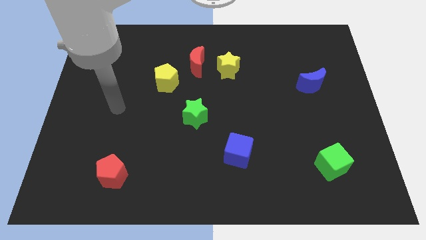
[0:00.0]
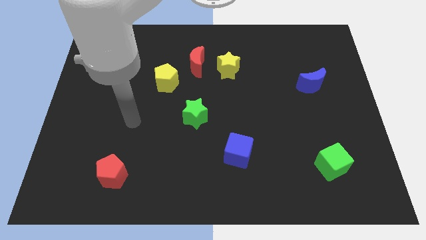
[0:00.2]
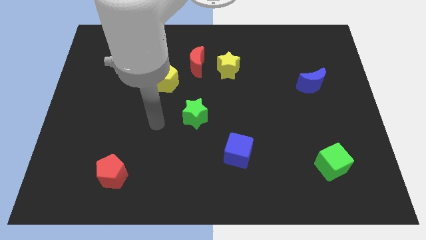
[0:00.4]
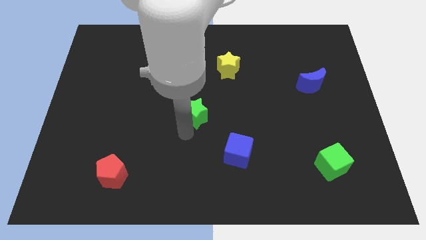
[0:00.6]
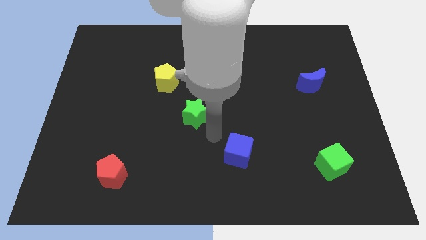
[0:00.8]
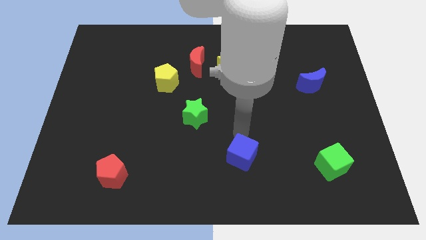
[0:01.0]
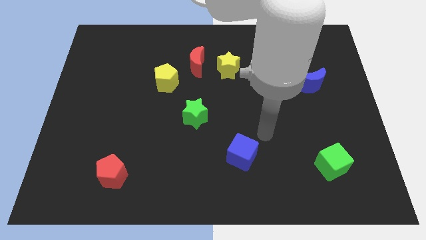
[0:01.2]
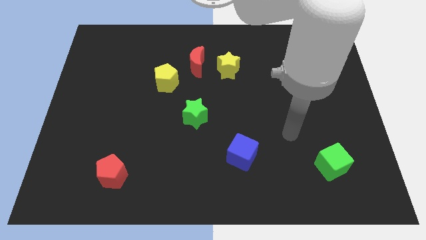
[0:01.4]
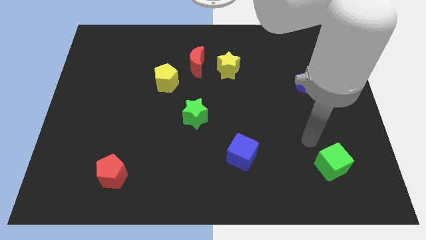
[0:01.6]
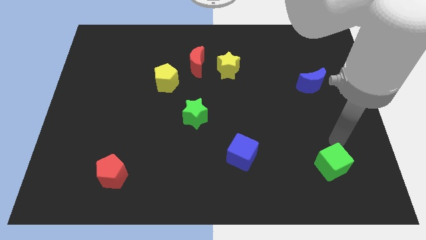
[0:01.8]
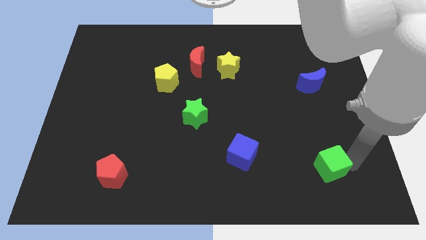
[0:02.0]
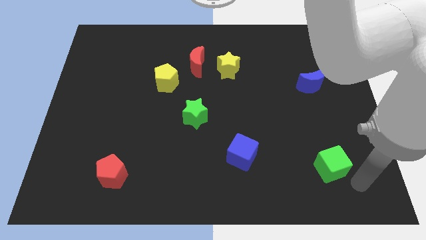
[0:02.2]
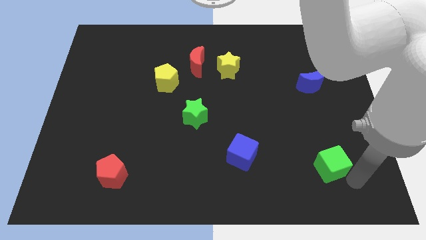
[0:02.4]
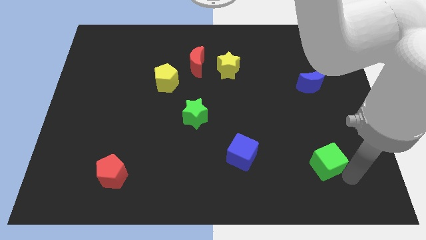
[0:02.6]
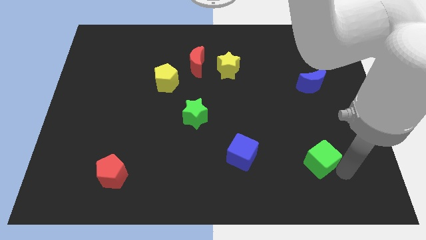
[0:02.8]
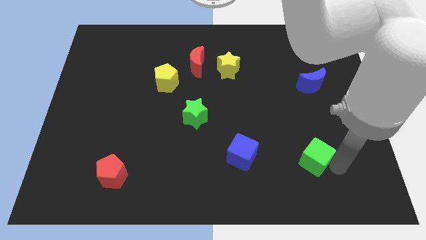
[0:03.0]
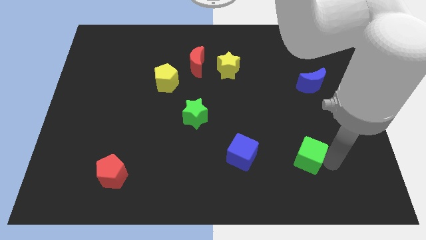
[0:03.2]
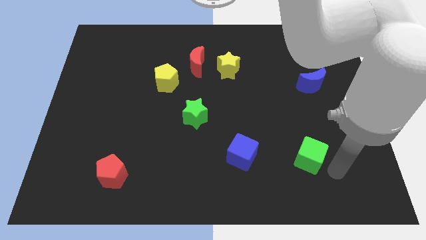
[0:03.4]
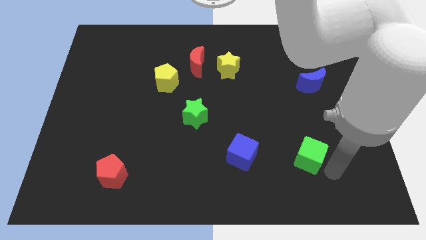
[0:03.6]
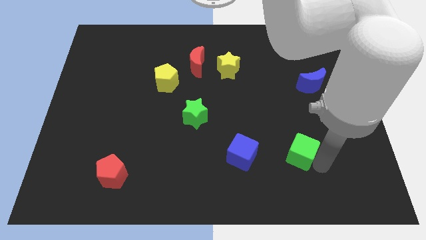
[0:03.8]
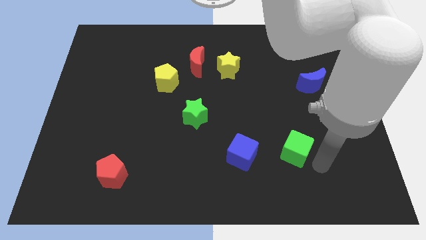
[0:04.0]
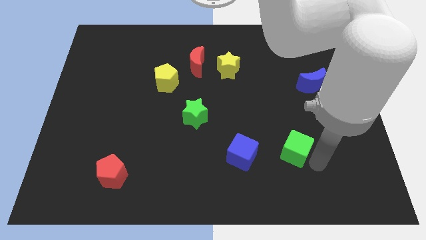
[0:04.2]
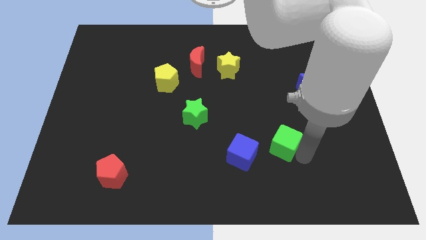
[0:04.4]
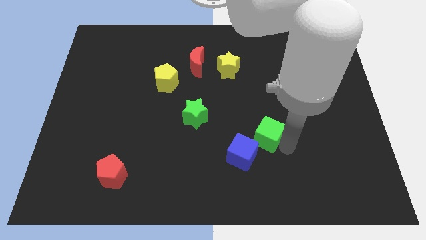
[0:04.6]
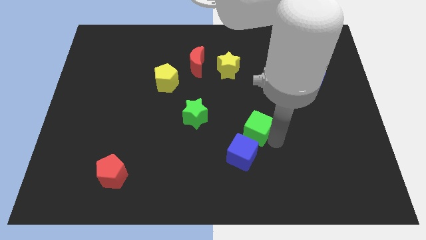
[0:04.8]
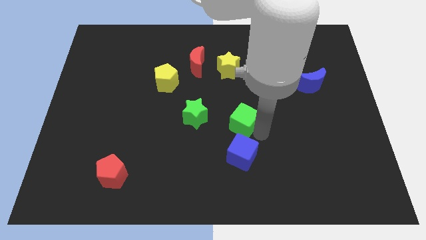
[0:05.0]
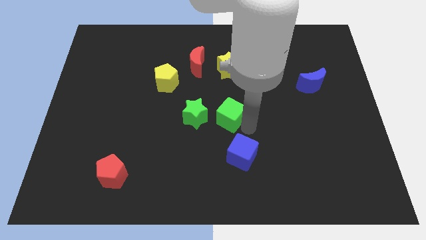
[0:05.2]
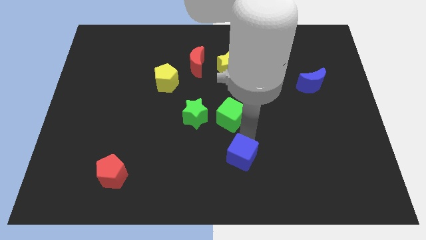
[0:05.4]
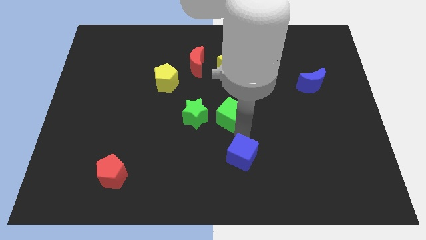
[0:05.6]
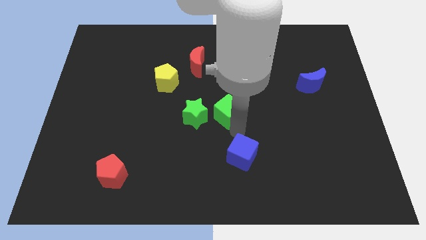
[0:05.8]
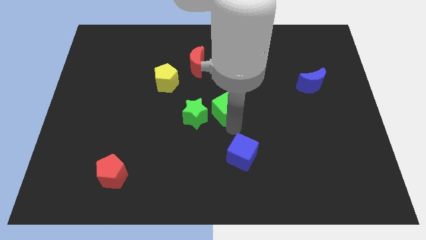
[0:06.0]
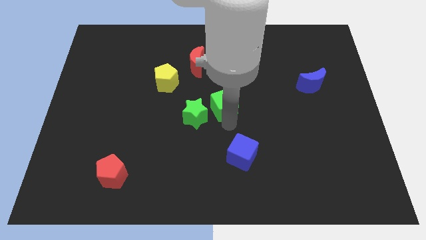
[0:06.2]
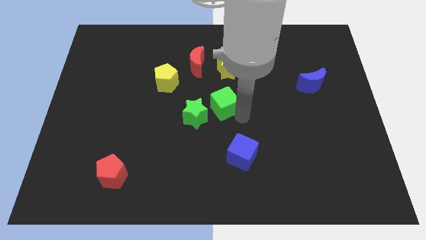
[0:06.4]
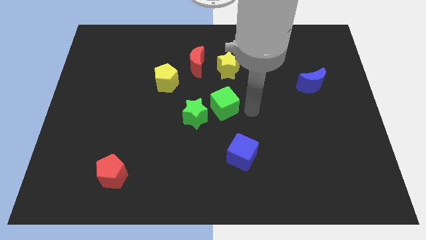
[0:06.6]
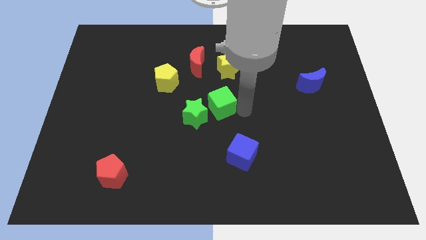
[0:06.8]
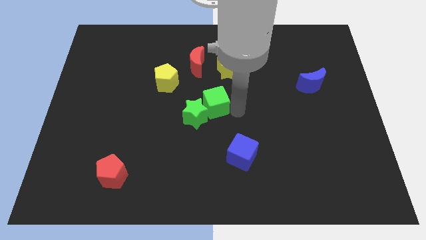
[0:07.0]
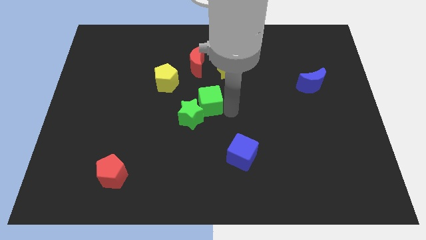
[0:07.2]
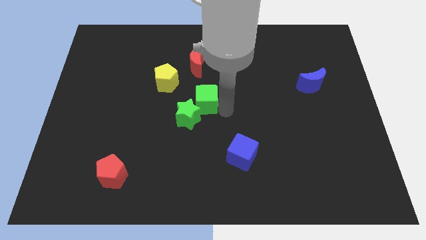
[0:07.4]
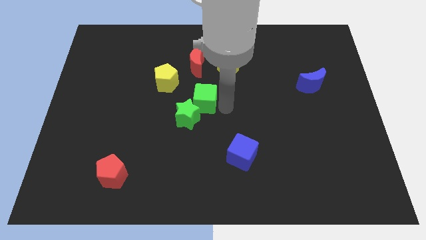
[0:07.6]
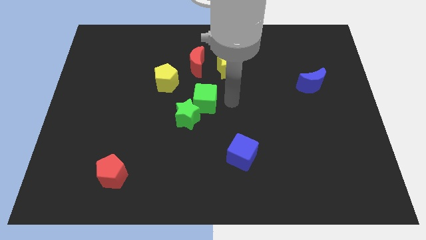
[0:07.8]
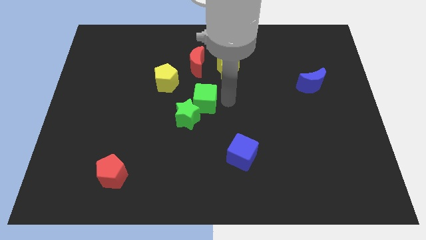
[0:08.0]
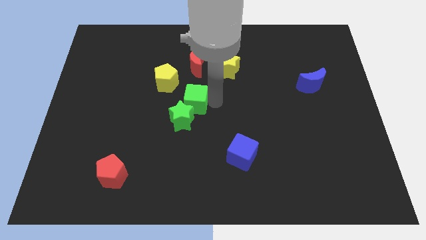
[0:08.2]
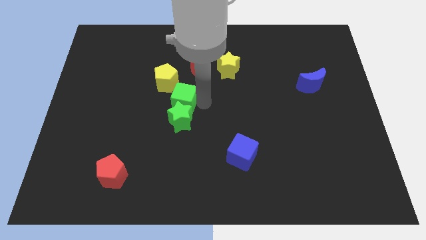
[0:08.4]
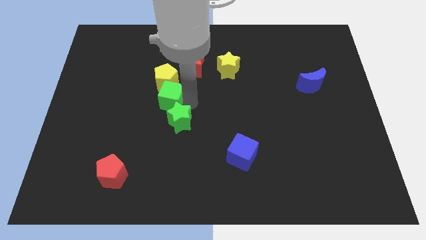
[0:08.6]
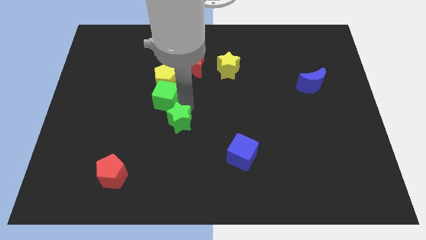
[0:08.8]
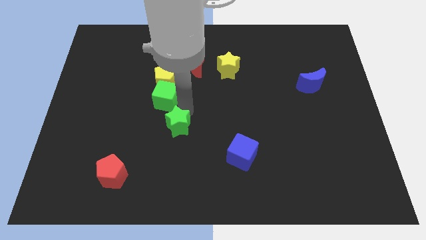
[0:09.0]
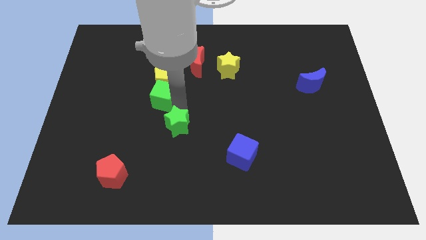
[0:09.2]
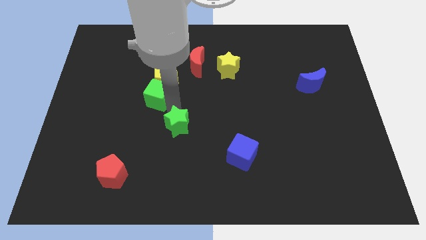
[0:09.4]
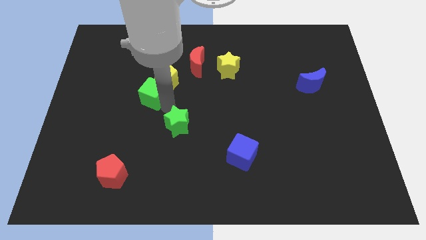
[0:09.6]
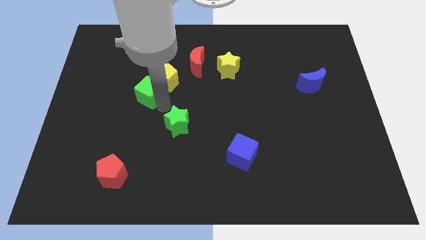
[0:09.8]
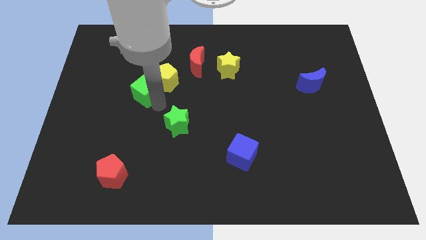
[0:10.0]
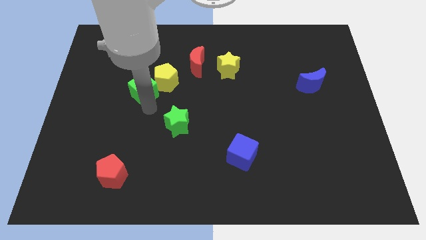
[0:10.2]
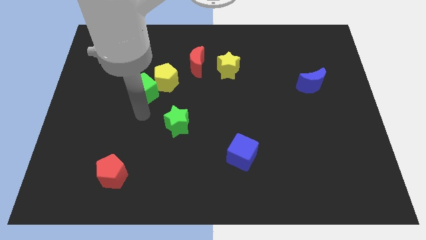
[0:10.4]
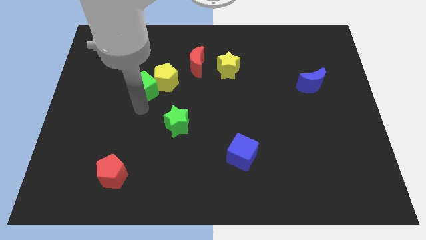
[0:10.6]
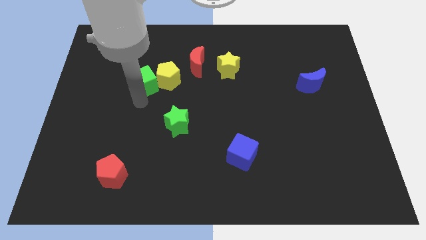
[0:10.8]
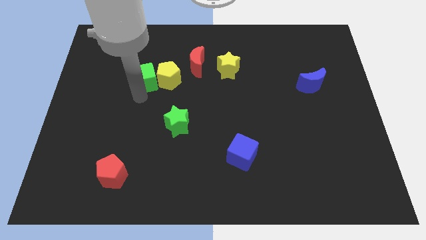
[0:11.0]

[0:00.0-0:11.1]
push the green cube to the top left side of the yellow pentagon

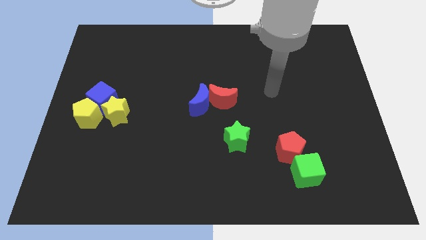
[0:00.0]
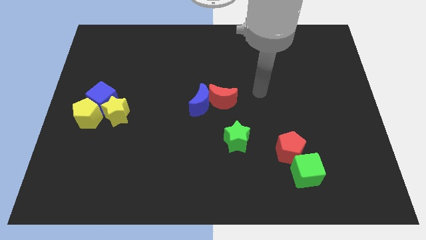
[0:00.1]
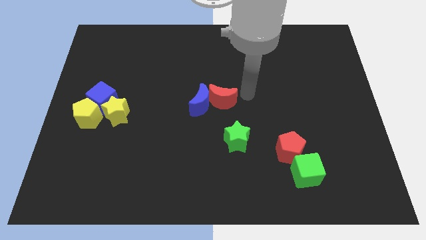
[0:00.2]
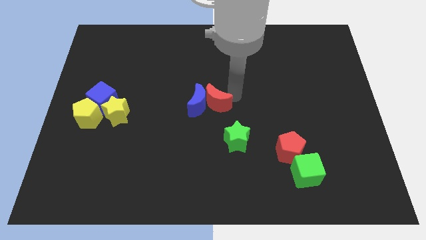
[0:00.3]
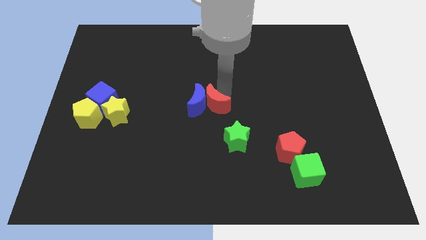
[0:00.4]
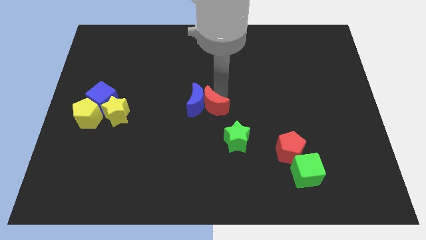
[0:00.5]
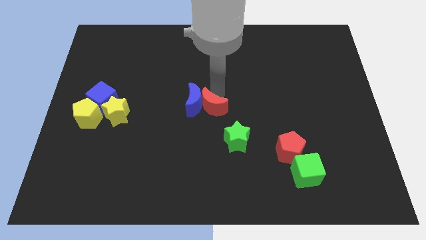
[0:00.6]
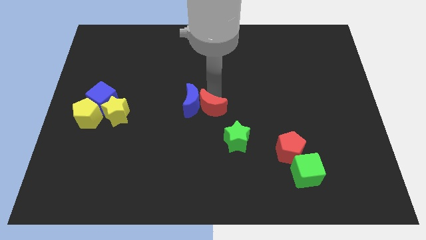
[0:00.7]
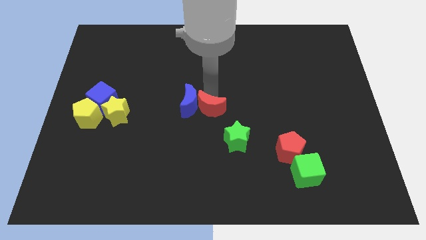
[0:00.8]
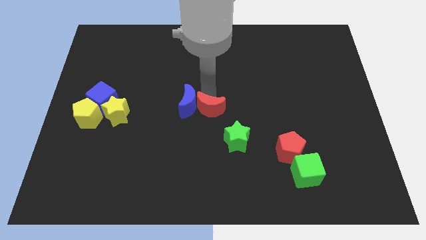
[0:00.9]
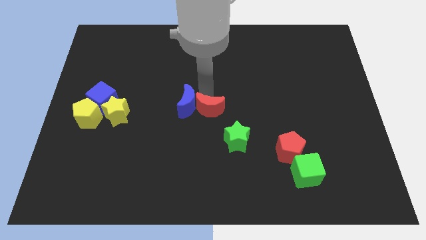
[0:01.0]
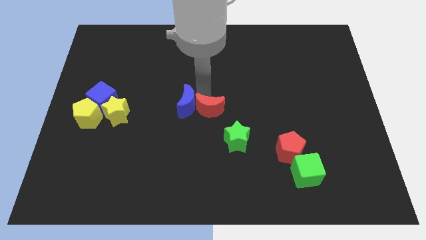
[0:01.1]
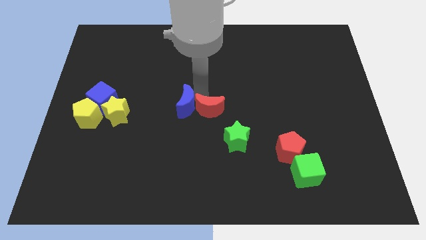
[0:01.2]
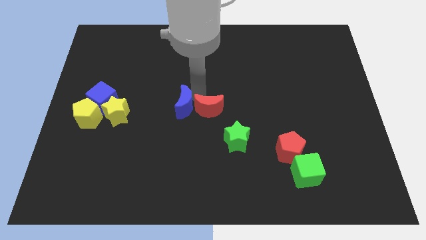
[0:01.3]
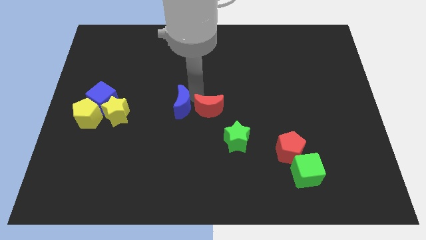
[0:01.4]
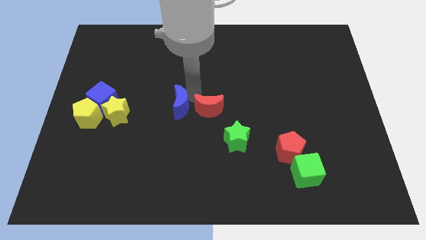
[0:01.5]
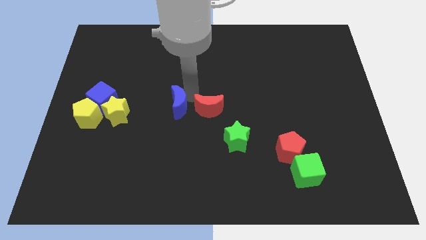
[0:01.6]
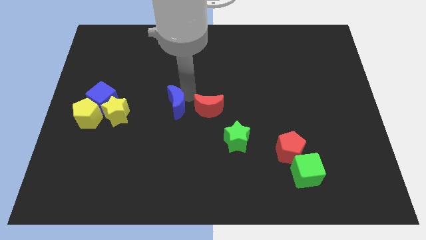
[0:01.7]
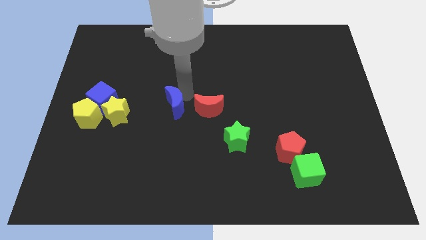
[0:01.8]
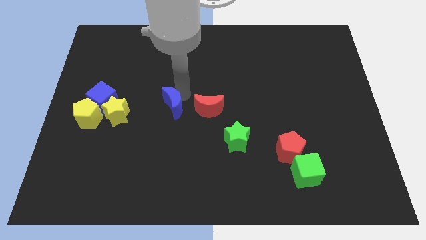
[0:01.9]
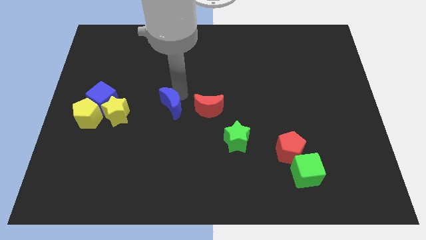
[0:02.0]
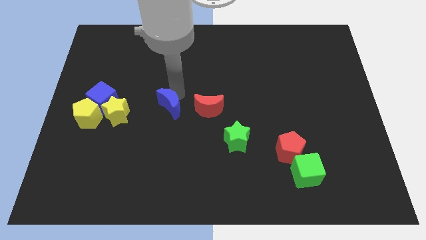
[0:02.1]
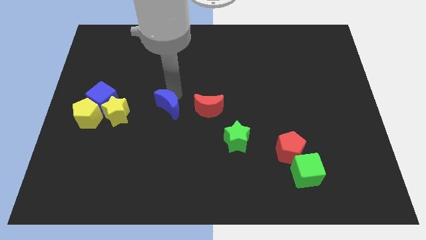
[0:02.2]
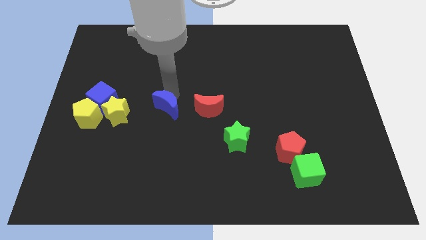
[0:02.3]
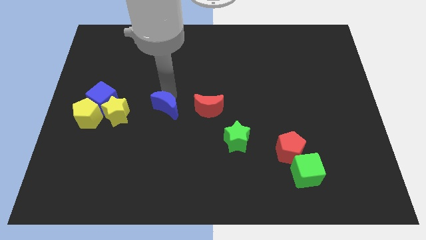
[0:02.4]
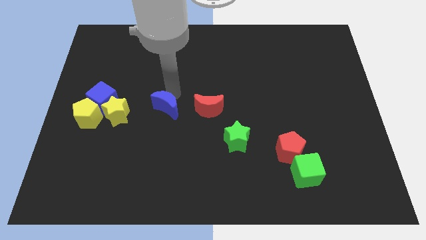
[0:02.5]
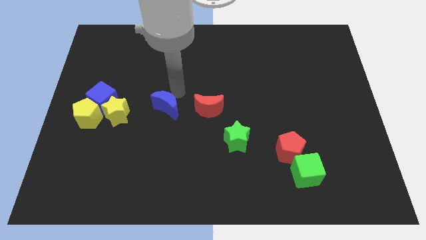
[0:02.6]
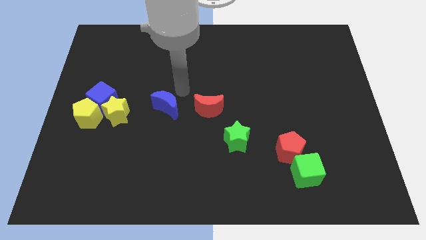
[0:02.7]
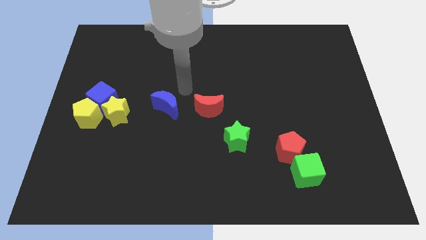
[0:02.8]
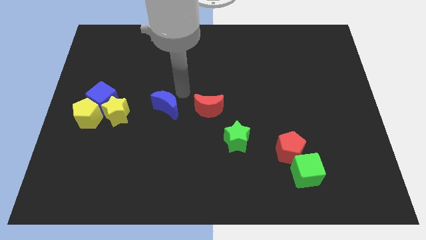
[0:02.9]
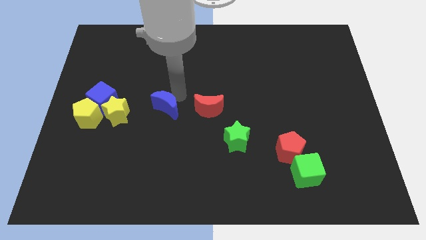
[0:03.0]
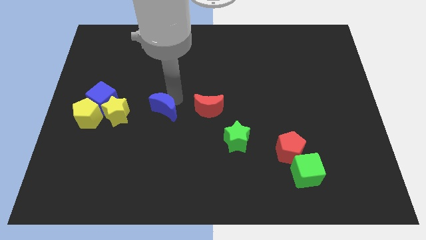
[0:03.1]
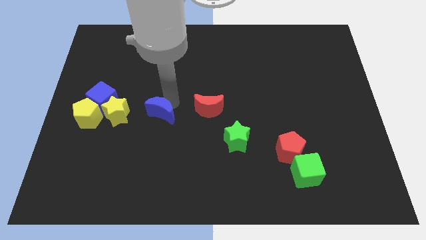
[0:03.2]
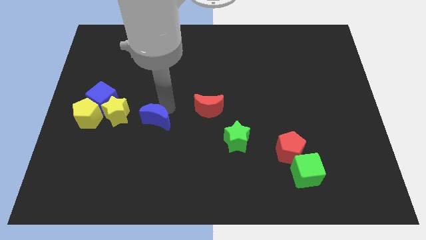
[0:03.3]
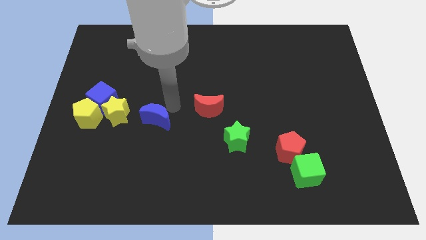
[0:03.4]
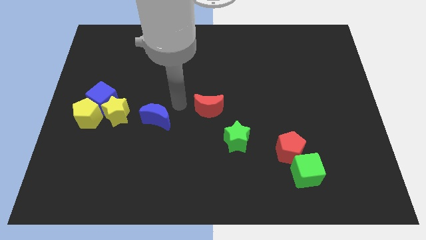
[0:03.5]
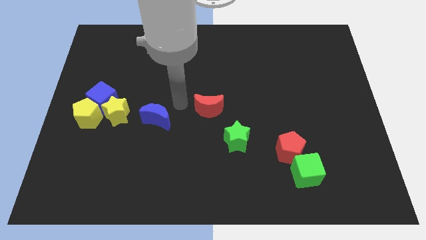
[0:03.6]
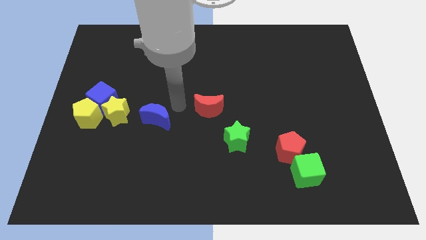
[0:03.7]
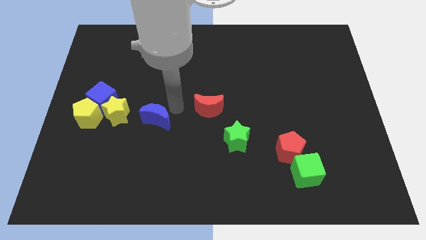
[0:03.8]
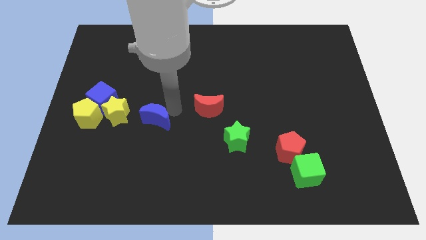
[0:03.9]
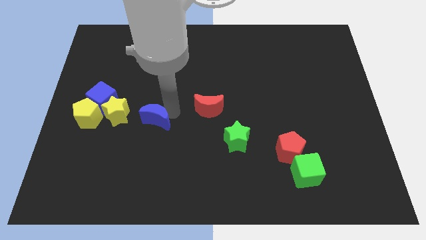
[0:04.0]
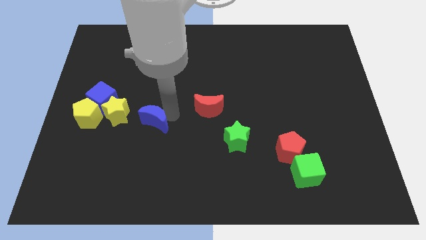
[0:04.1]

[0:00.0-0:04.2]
move the blue moon to the bottom right of the yellow star
